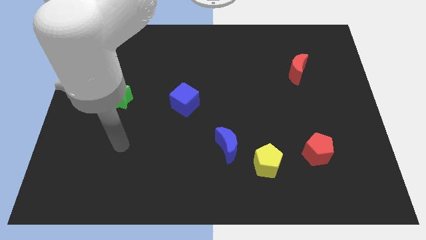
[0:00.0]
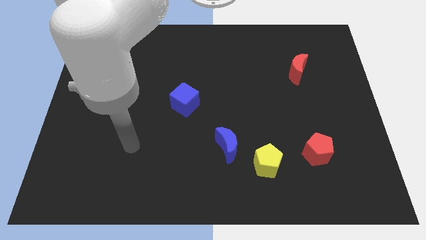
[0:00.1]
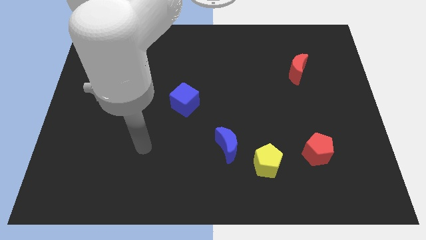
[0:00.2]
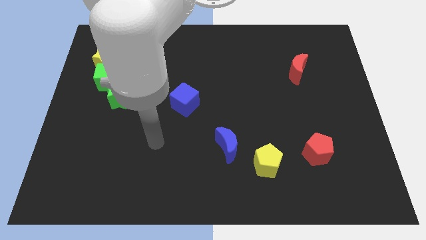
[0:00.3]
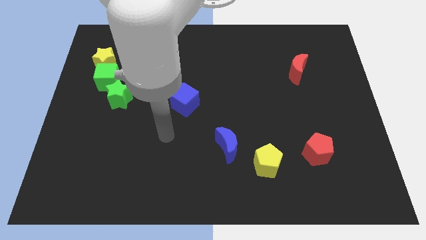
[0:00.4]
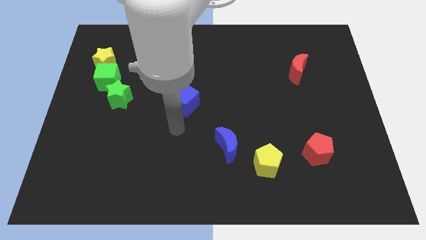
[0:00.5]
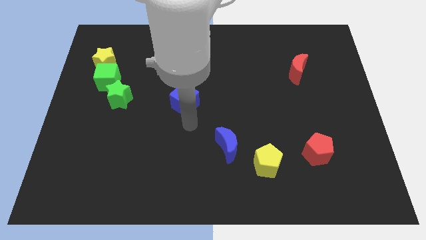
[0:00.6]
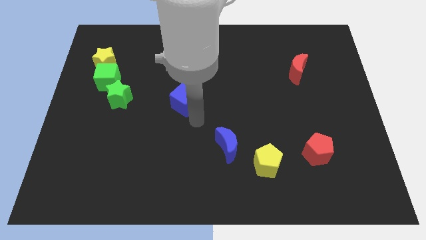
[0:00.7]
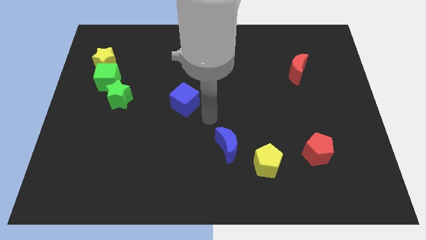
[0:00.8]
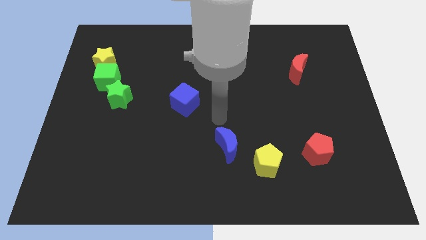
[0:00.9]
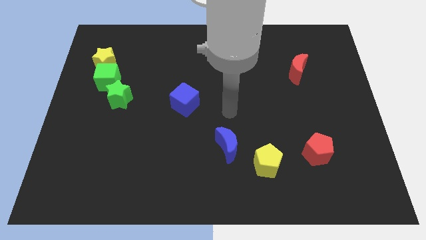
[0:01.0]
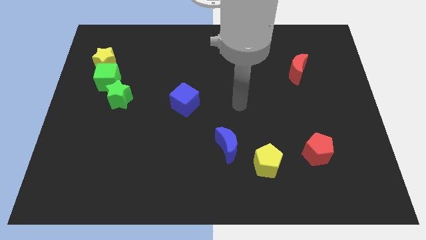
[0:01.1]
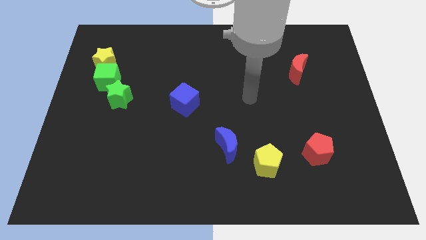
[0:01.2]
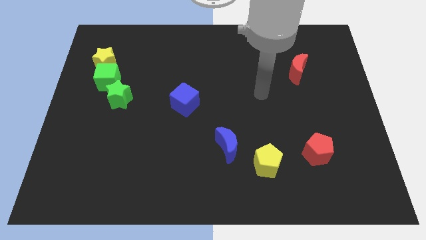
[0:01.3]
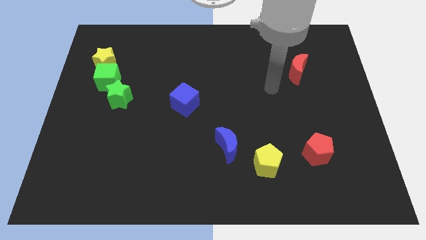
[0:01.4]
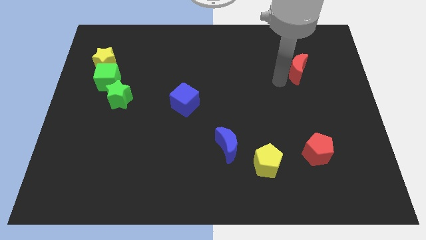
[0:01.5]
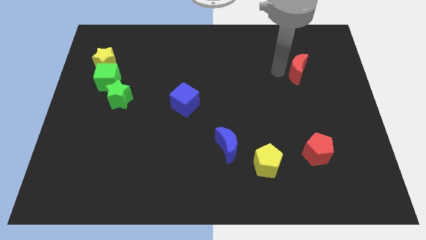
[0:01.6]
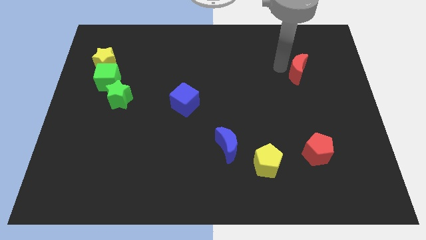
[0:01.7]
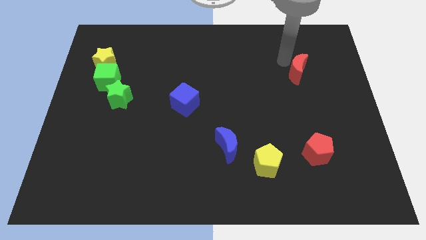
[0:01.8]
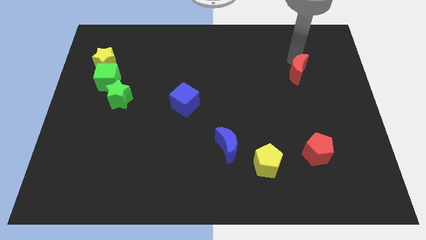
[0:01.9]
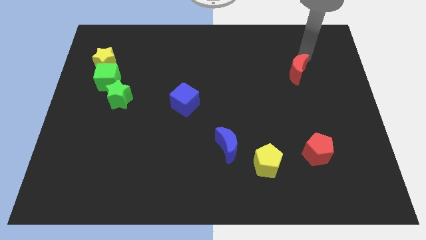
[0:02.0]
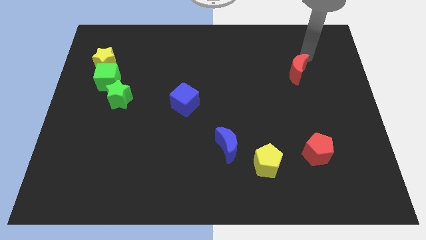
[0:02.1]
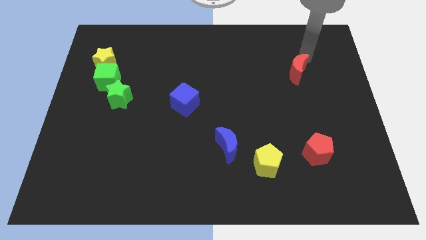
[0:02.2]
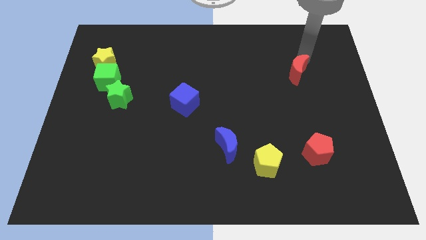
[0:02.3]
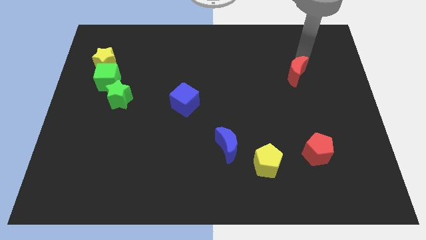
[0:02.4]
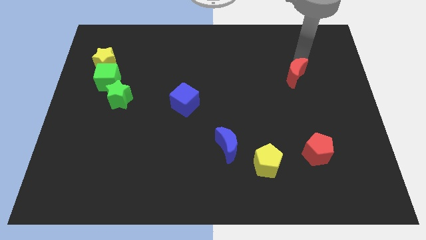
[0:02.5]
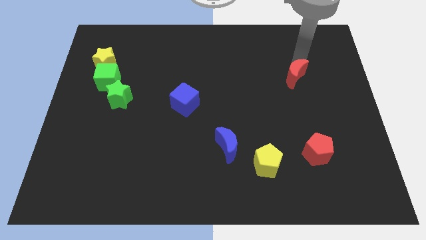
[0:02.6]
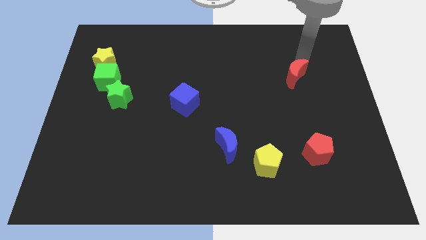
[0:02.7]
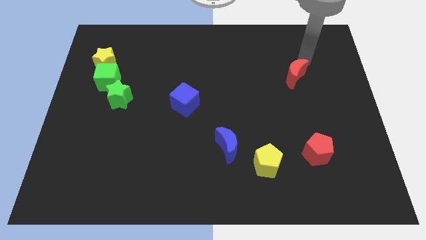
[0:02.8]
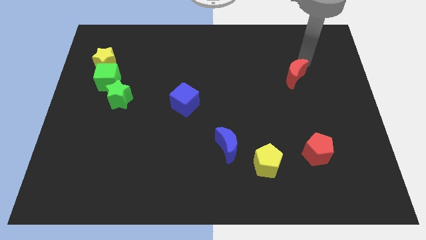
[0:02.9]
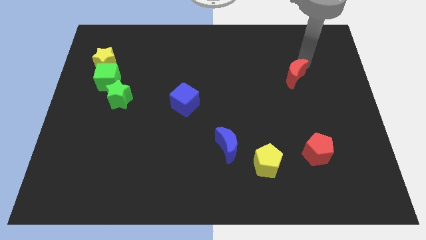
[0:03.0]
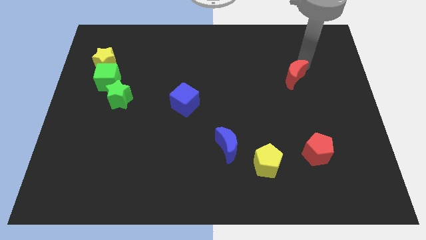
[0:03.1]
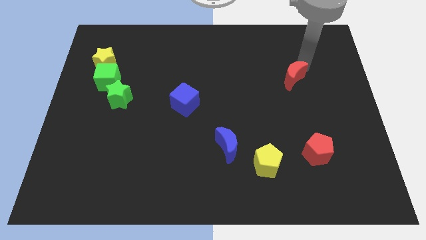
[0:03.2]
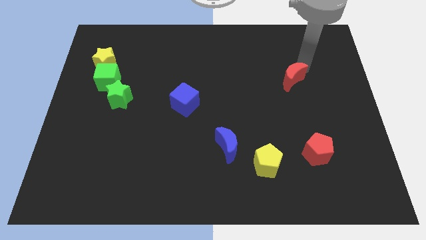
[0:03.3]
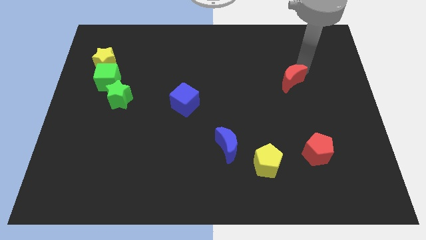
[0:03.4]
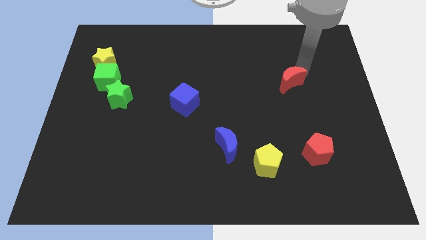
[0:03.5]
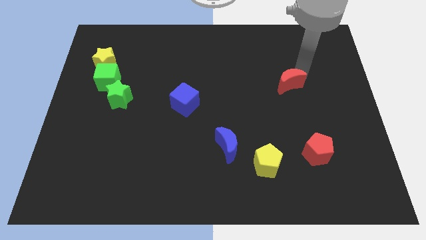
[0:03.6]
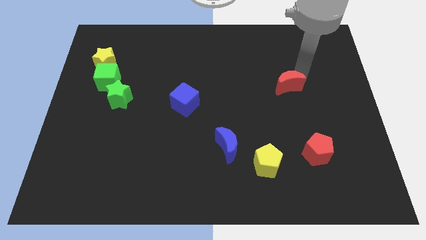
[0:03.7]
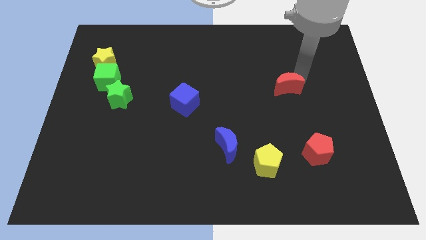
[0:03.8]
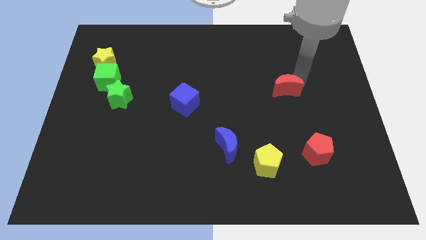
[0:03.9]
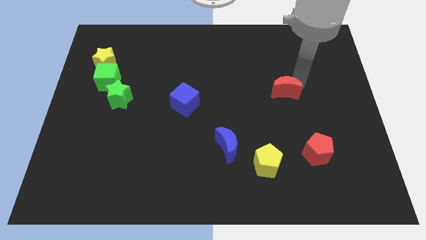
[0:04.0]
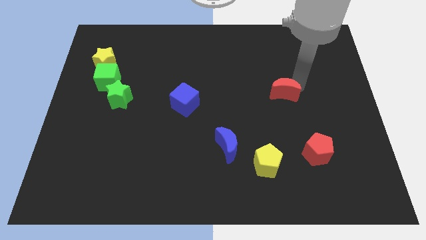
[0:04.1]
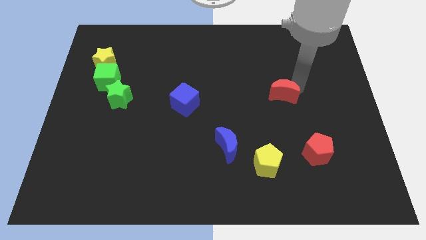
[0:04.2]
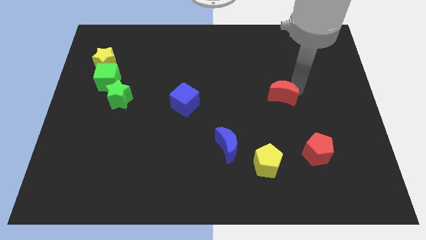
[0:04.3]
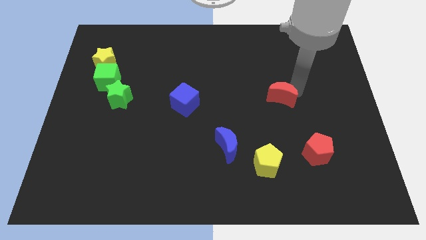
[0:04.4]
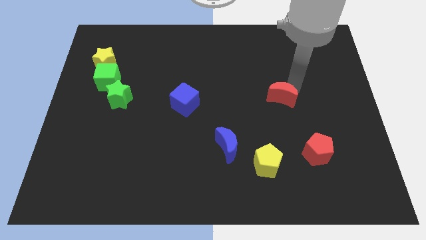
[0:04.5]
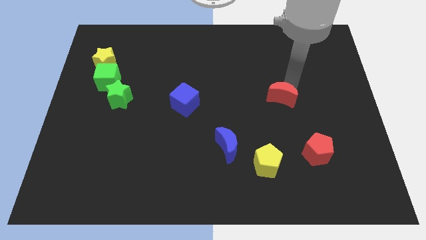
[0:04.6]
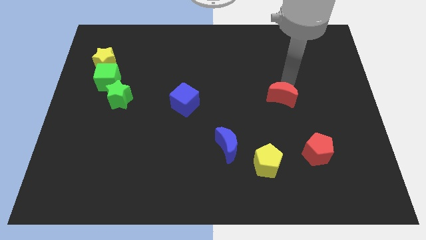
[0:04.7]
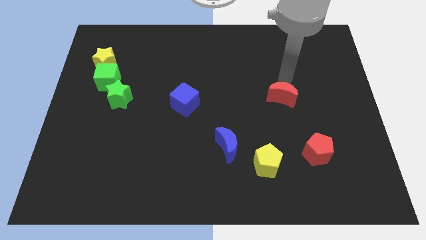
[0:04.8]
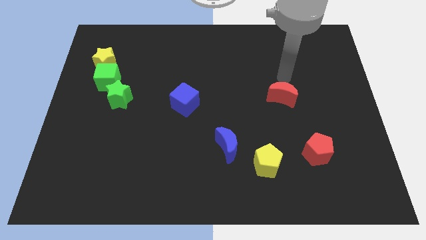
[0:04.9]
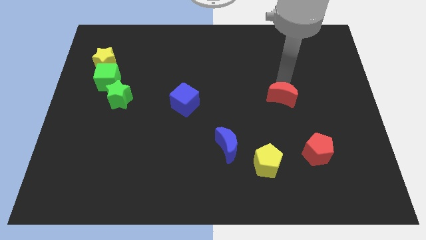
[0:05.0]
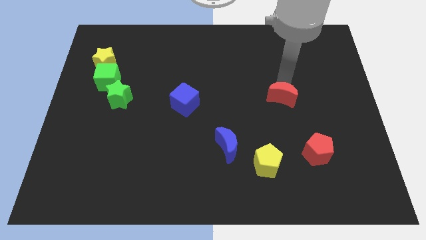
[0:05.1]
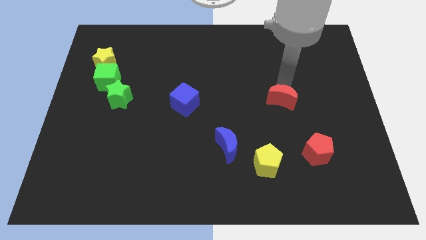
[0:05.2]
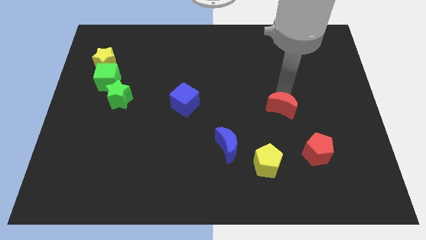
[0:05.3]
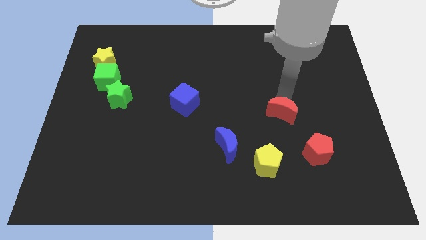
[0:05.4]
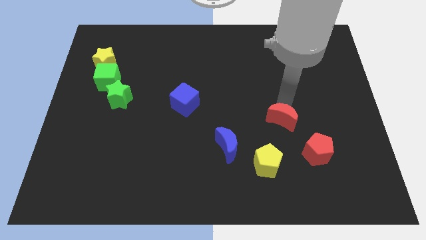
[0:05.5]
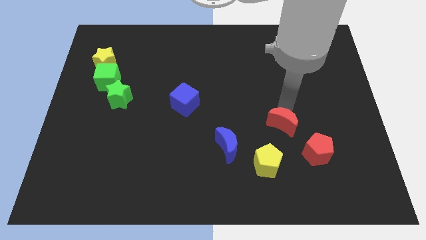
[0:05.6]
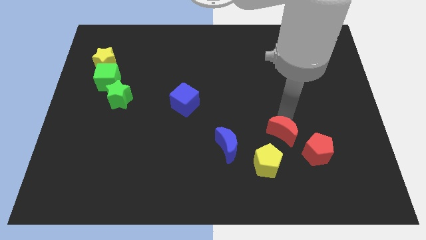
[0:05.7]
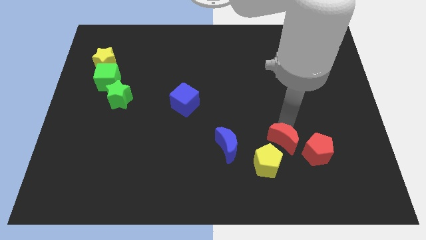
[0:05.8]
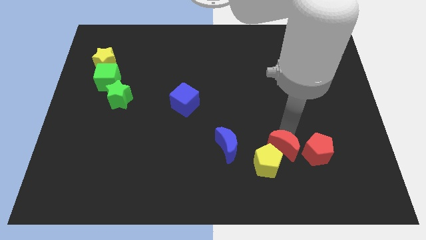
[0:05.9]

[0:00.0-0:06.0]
push the red moon to the yellow pentagon
